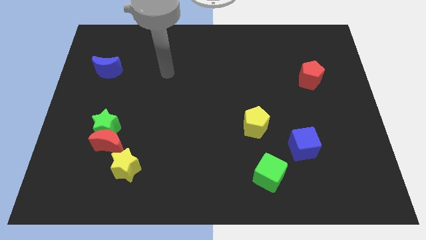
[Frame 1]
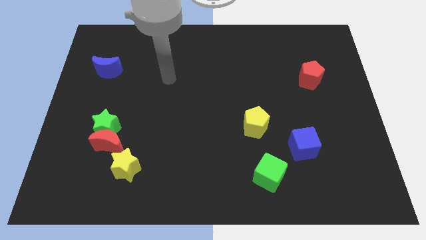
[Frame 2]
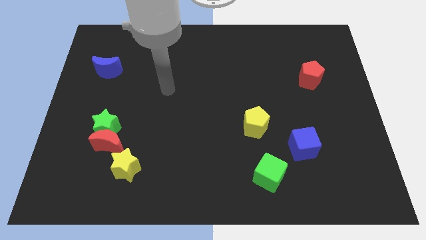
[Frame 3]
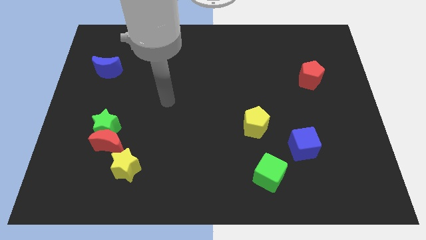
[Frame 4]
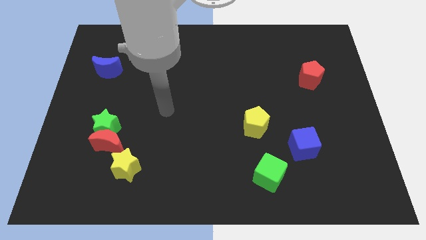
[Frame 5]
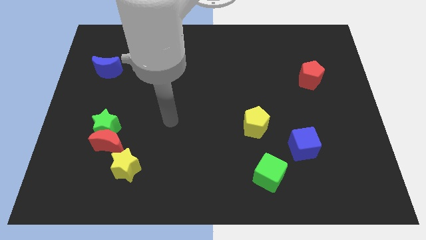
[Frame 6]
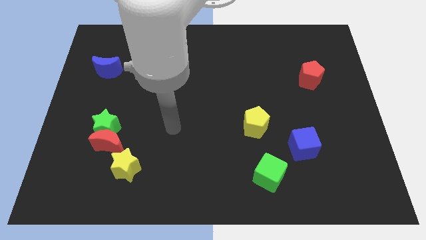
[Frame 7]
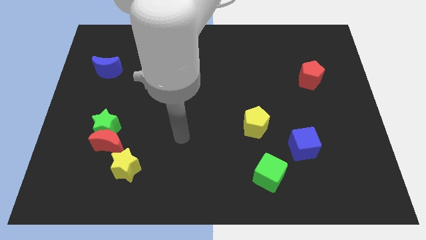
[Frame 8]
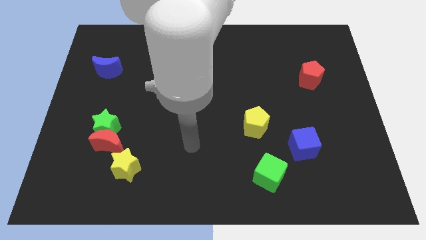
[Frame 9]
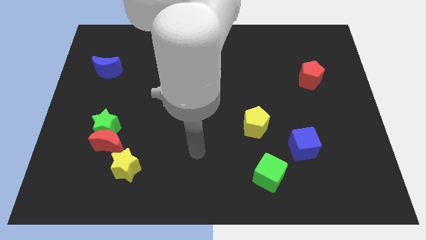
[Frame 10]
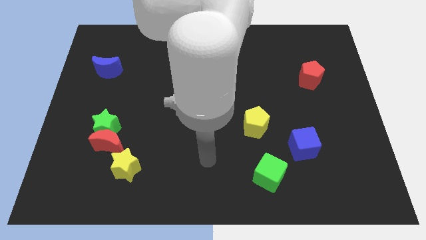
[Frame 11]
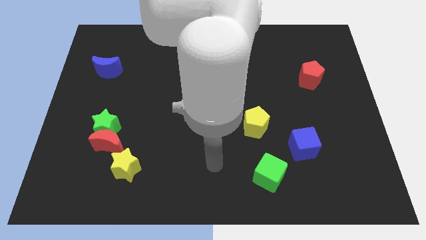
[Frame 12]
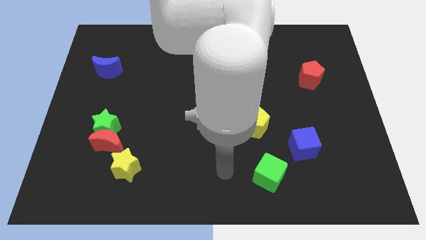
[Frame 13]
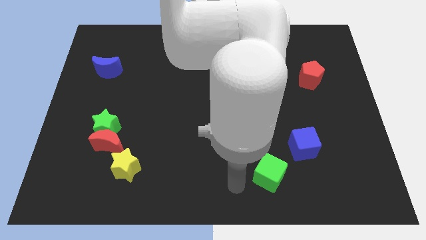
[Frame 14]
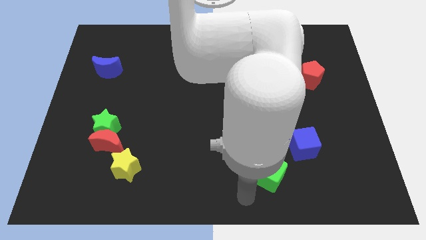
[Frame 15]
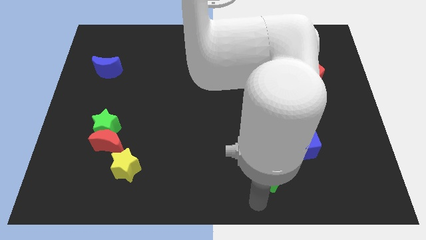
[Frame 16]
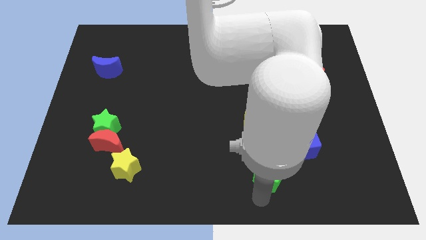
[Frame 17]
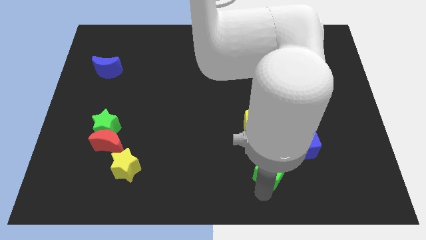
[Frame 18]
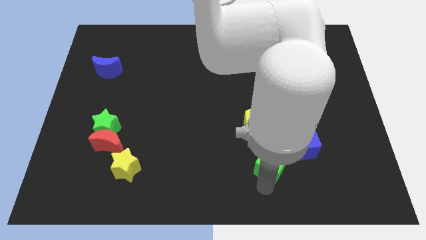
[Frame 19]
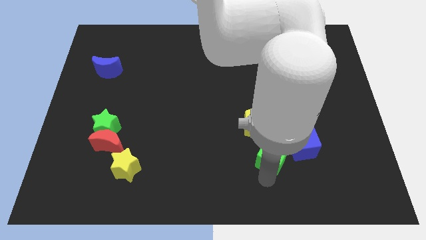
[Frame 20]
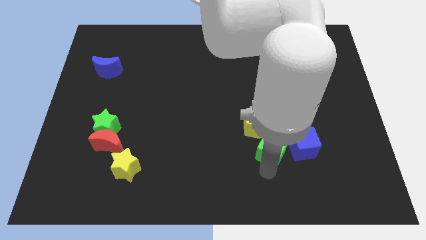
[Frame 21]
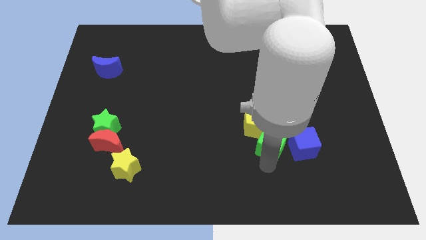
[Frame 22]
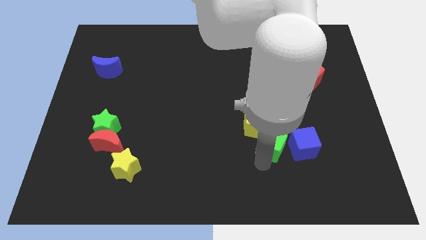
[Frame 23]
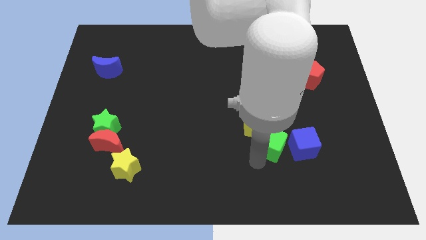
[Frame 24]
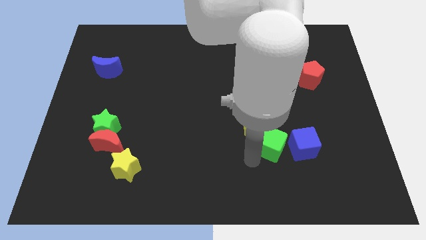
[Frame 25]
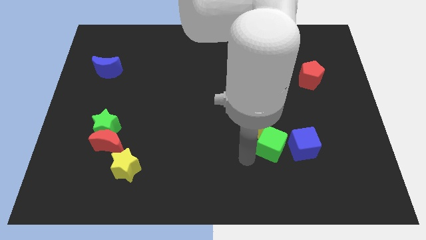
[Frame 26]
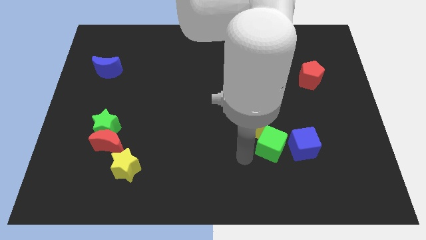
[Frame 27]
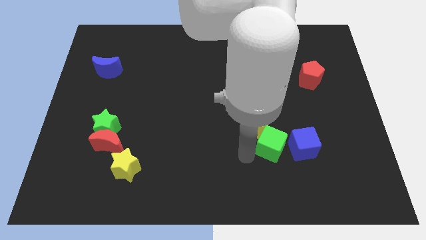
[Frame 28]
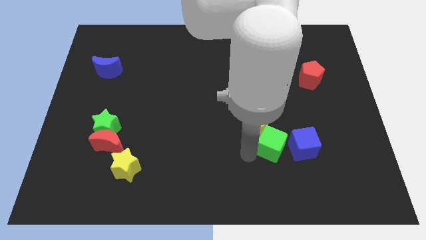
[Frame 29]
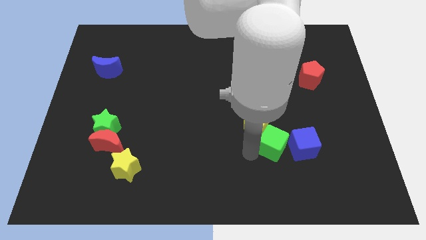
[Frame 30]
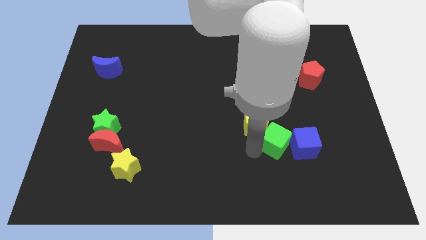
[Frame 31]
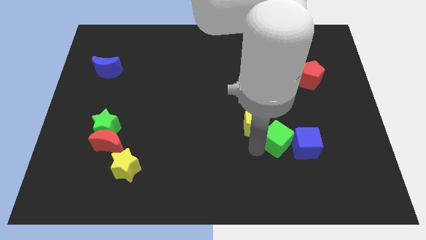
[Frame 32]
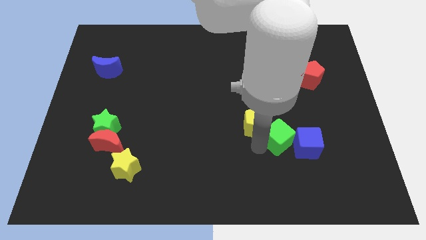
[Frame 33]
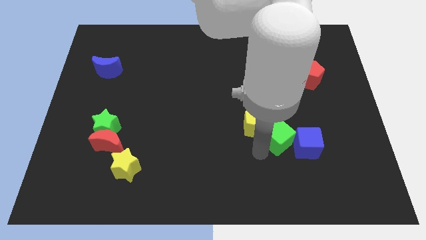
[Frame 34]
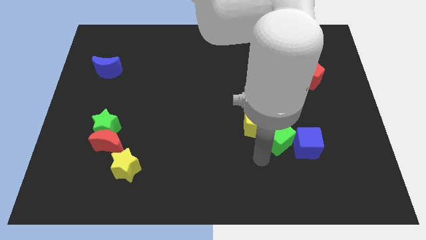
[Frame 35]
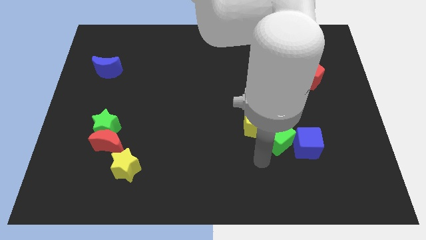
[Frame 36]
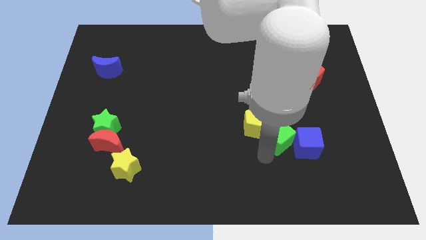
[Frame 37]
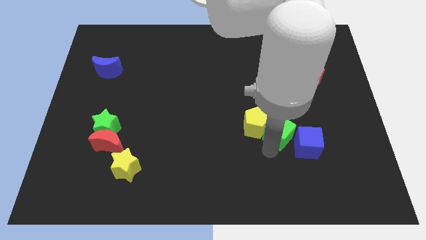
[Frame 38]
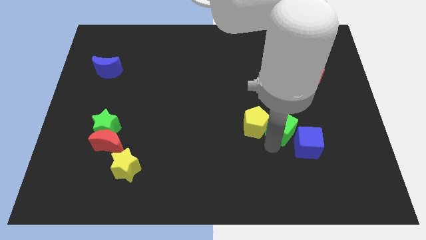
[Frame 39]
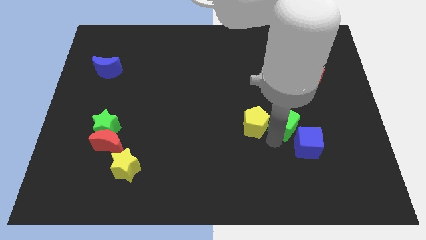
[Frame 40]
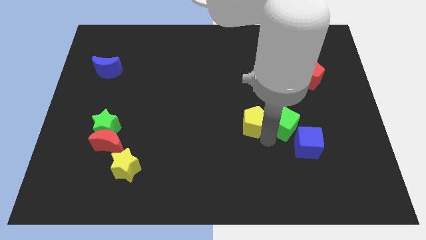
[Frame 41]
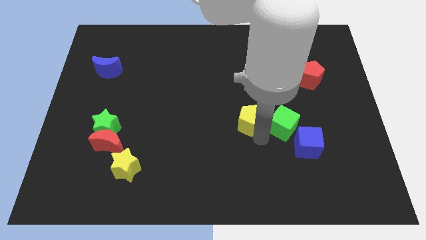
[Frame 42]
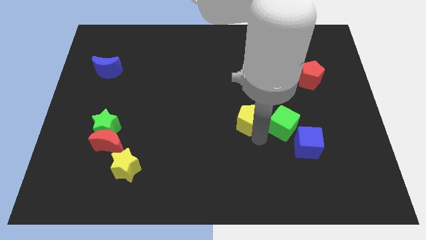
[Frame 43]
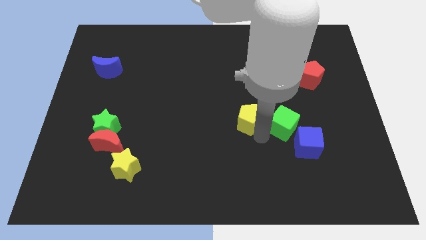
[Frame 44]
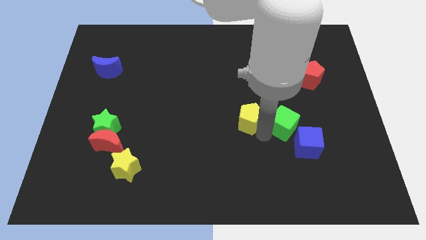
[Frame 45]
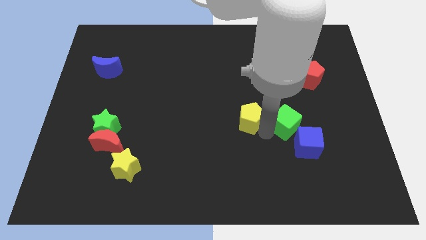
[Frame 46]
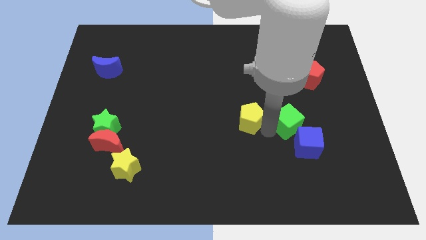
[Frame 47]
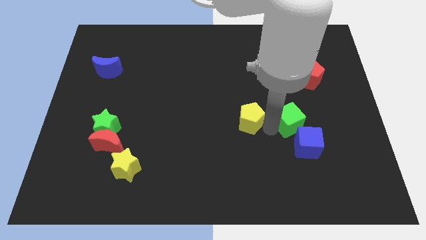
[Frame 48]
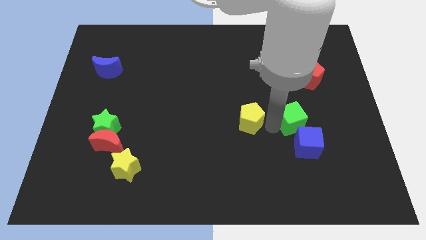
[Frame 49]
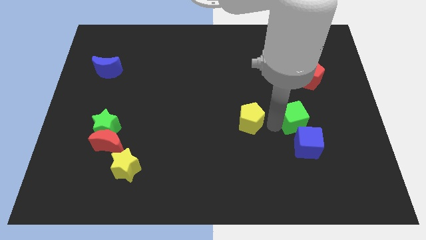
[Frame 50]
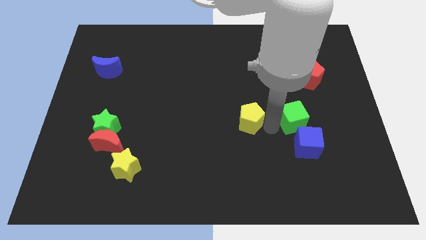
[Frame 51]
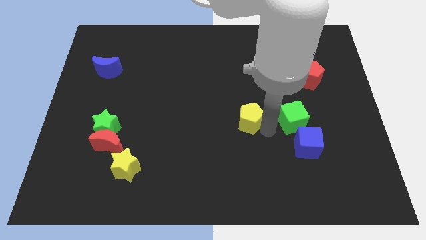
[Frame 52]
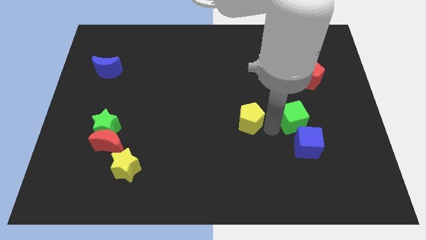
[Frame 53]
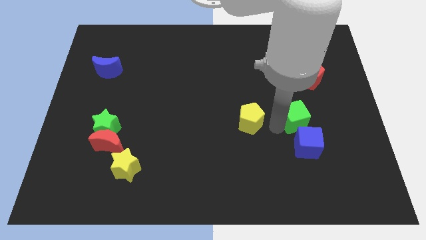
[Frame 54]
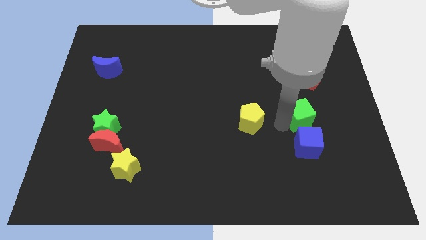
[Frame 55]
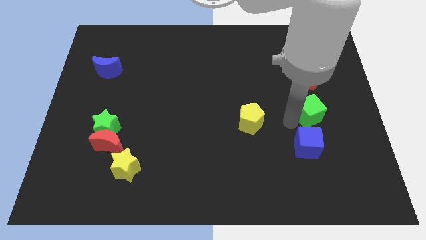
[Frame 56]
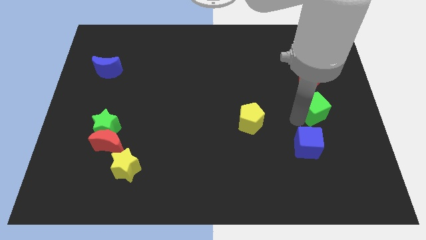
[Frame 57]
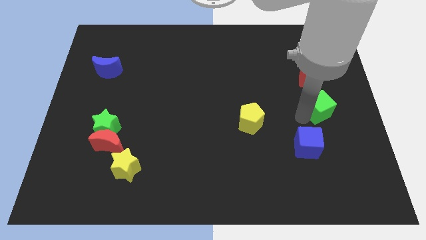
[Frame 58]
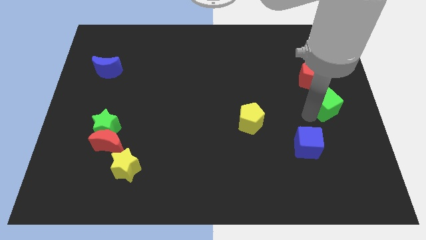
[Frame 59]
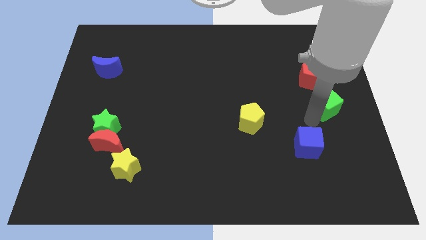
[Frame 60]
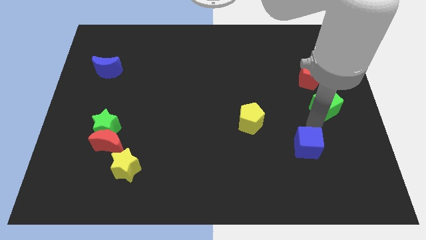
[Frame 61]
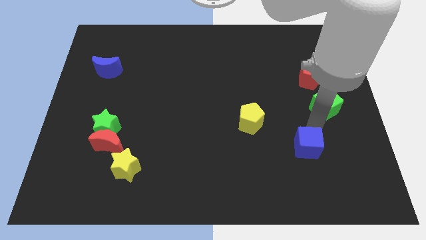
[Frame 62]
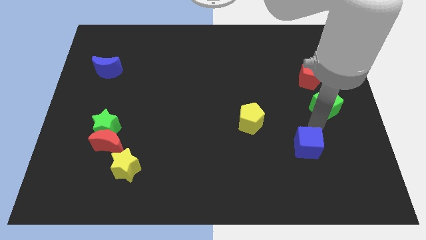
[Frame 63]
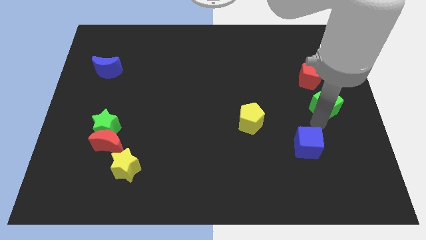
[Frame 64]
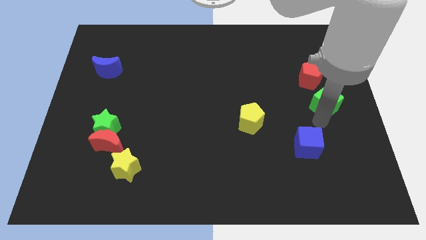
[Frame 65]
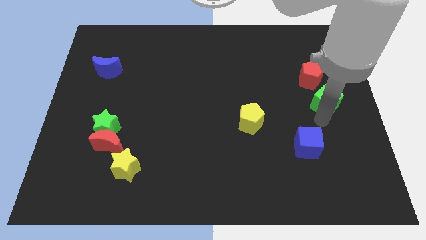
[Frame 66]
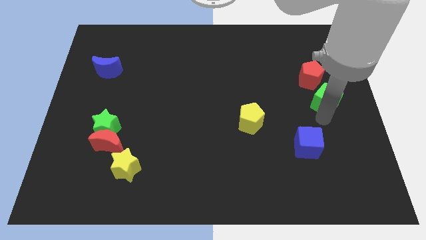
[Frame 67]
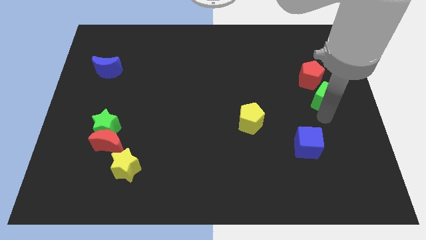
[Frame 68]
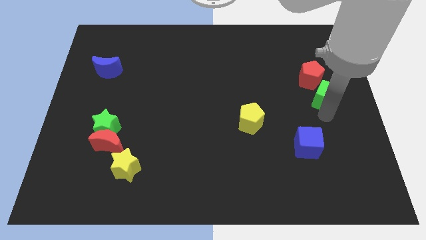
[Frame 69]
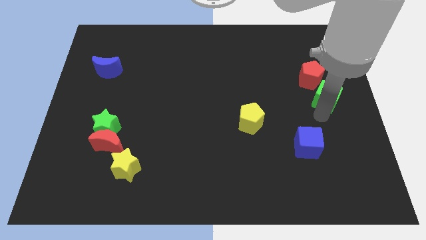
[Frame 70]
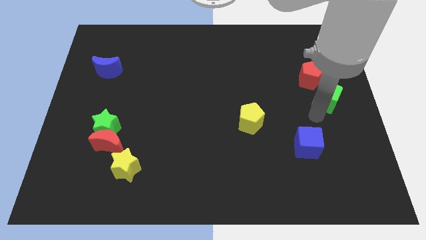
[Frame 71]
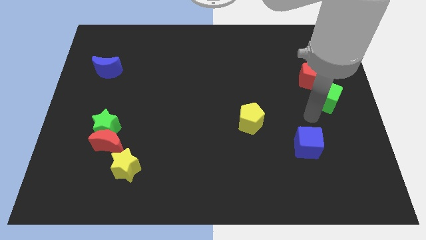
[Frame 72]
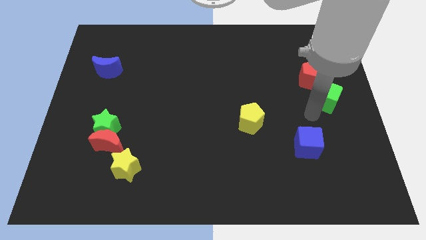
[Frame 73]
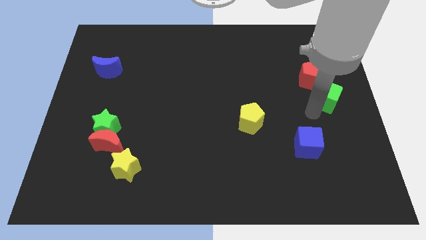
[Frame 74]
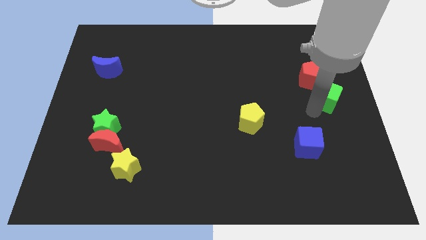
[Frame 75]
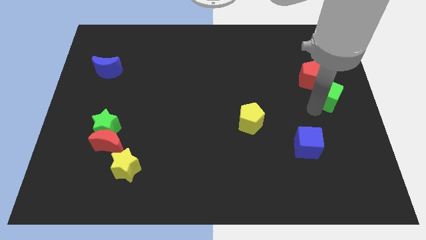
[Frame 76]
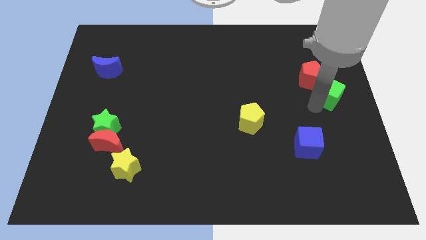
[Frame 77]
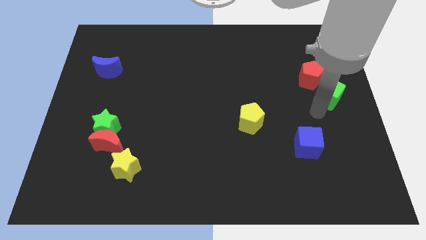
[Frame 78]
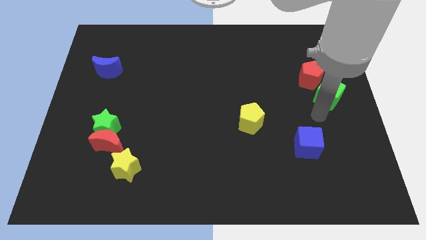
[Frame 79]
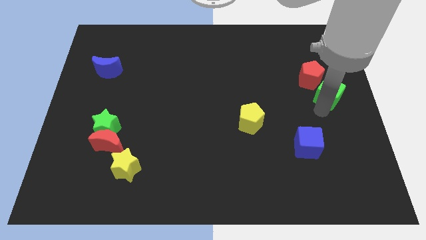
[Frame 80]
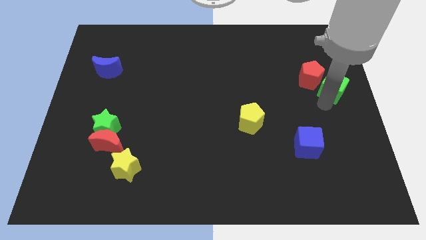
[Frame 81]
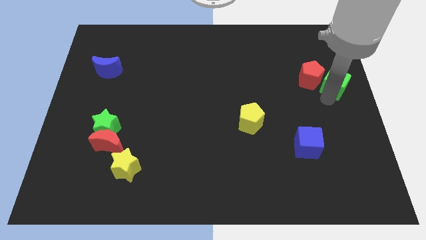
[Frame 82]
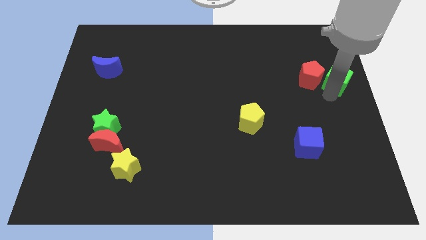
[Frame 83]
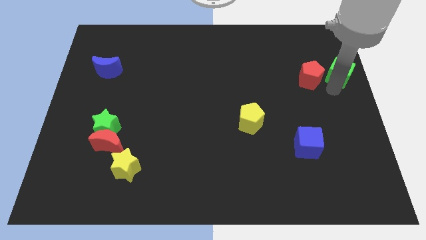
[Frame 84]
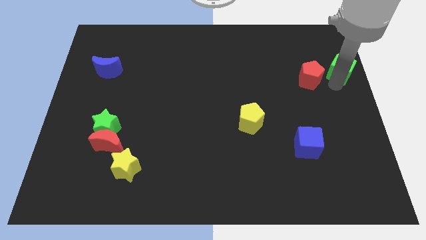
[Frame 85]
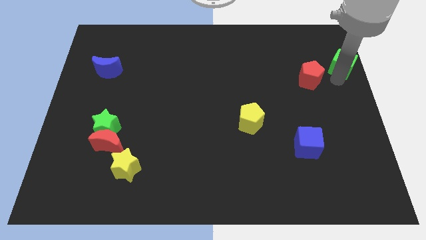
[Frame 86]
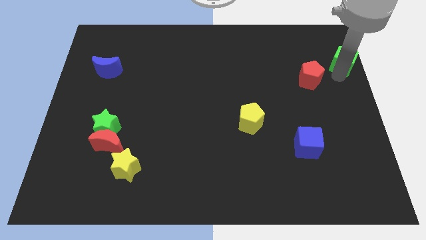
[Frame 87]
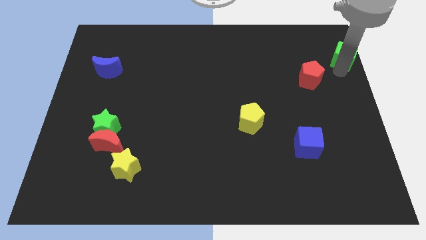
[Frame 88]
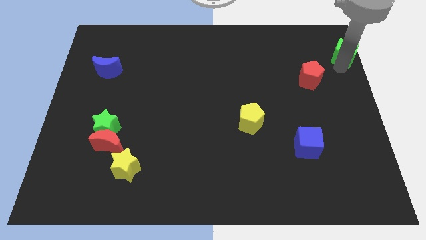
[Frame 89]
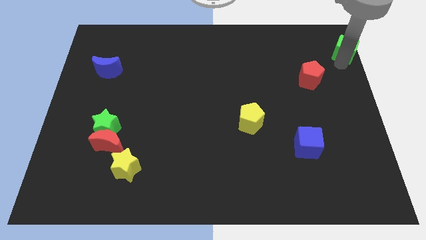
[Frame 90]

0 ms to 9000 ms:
push the green cube to the top right of the board
